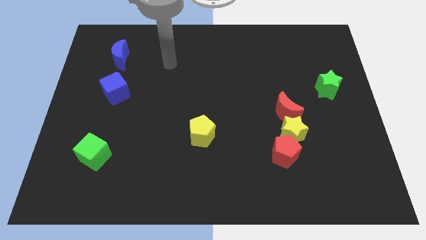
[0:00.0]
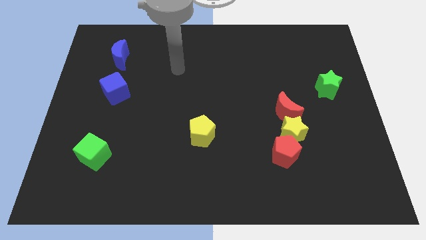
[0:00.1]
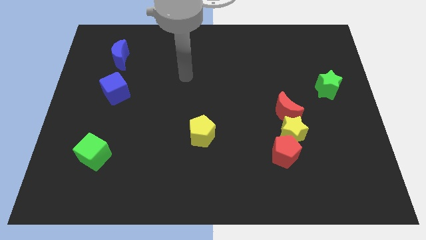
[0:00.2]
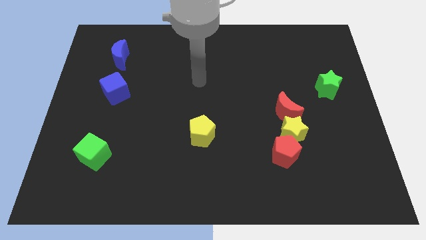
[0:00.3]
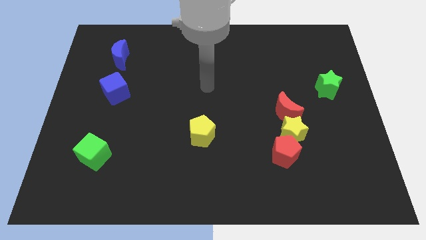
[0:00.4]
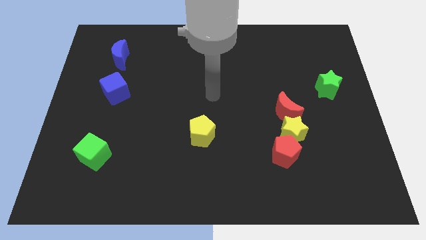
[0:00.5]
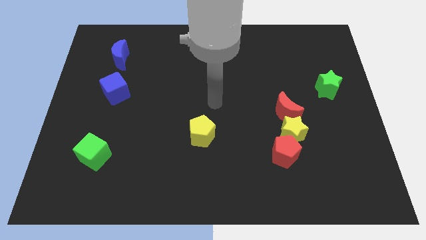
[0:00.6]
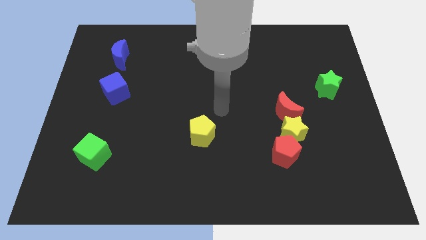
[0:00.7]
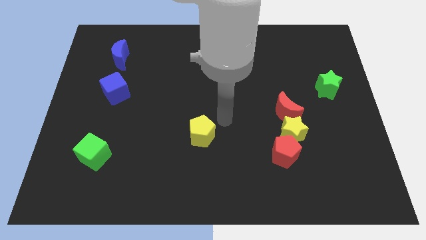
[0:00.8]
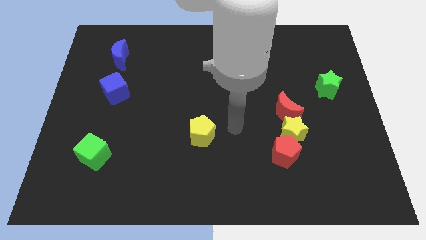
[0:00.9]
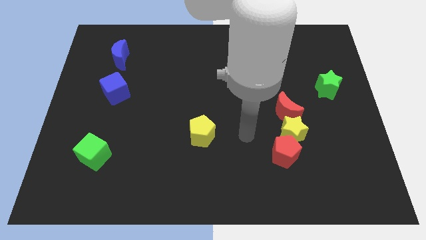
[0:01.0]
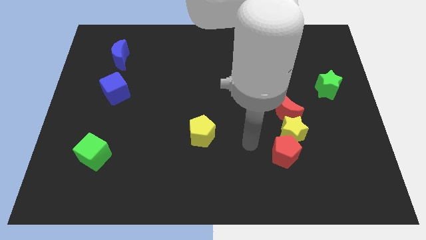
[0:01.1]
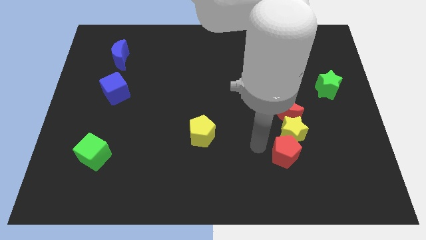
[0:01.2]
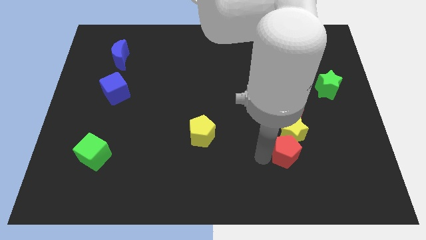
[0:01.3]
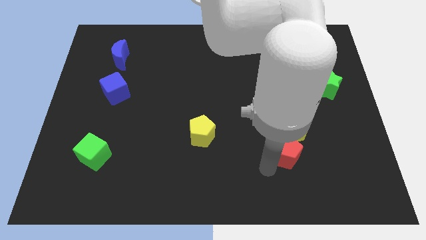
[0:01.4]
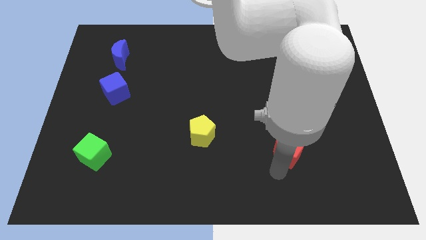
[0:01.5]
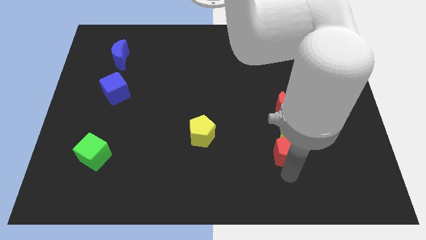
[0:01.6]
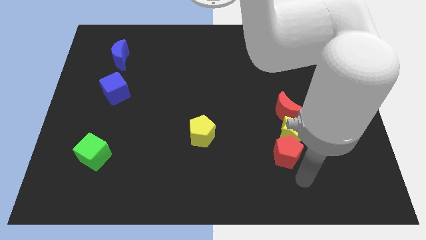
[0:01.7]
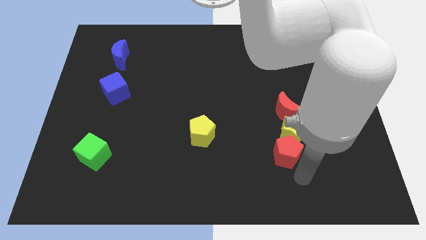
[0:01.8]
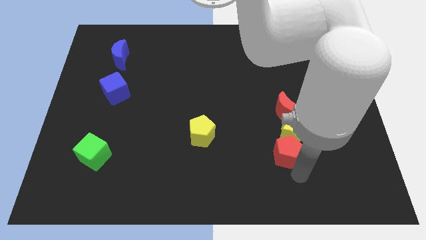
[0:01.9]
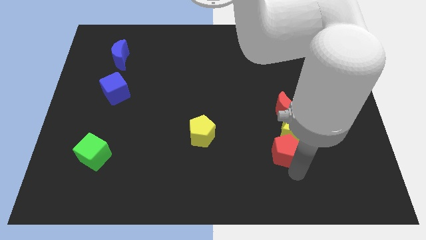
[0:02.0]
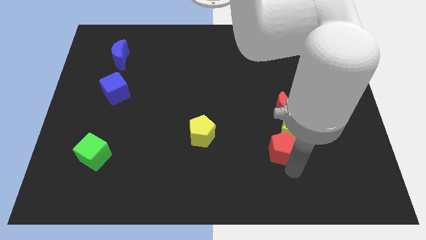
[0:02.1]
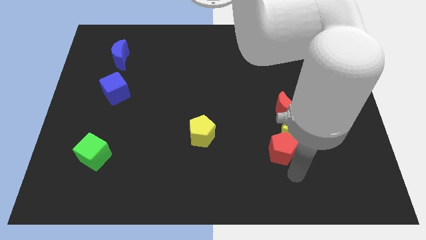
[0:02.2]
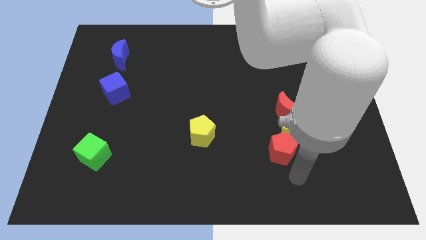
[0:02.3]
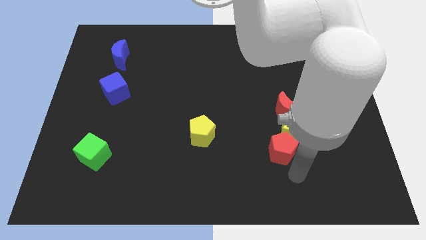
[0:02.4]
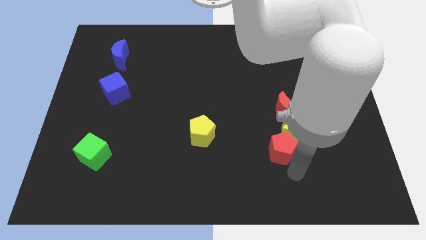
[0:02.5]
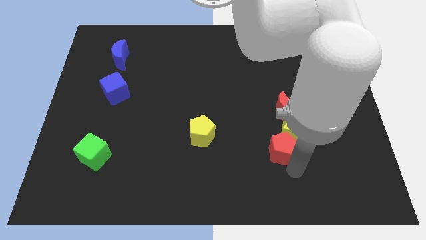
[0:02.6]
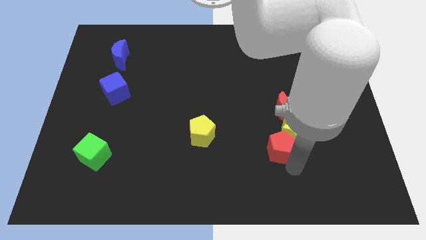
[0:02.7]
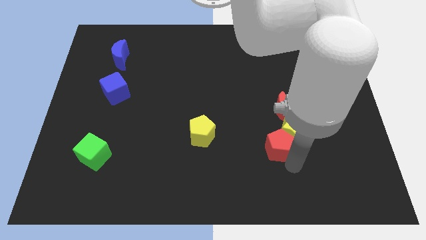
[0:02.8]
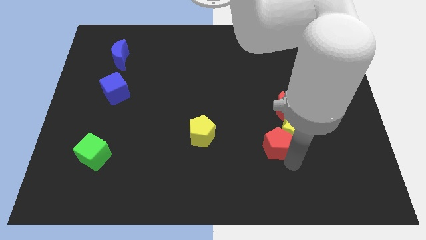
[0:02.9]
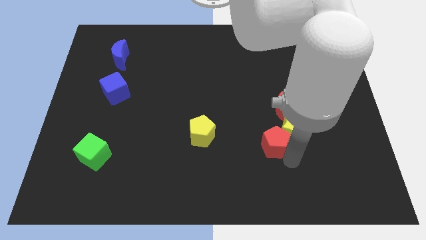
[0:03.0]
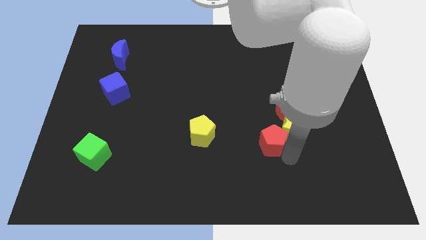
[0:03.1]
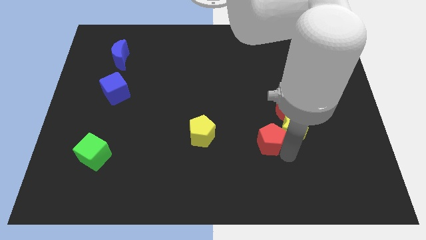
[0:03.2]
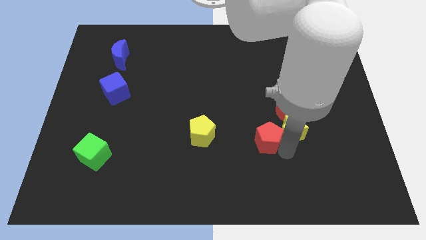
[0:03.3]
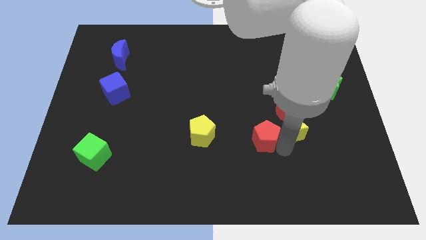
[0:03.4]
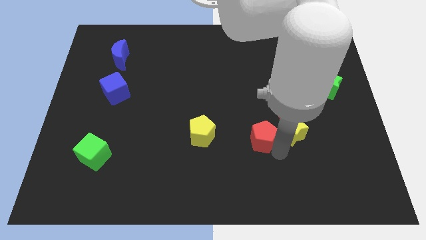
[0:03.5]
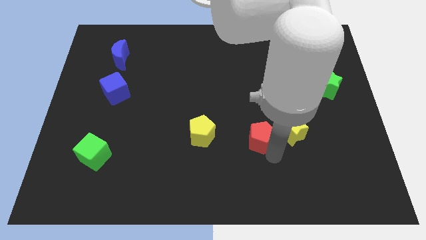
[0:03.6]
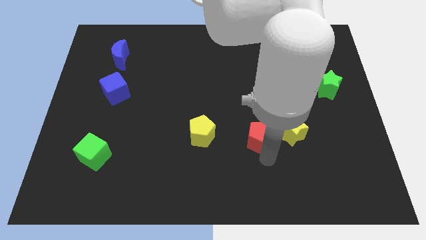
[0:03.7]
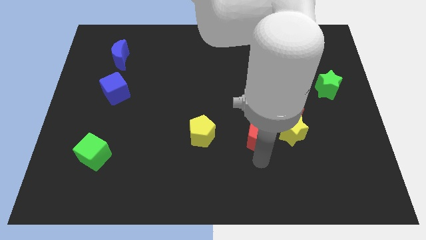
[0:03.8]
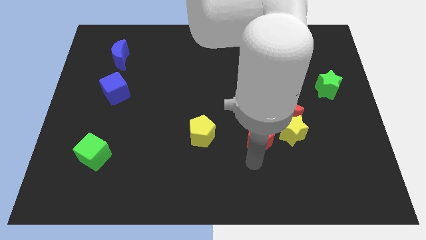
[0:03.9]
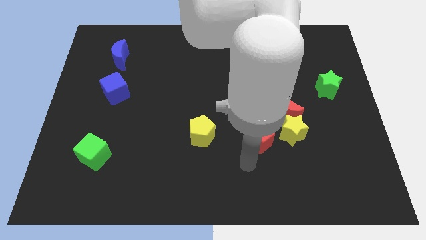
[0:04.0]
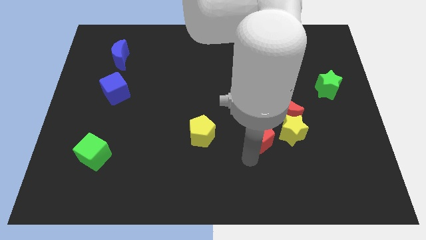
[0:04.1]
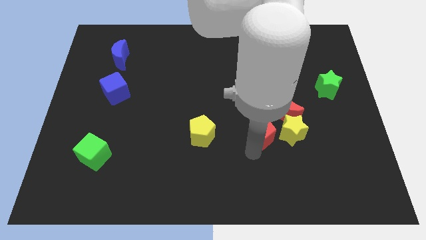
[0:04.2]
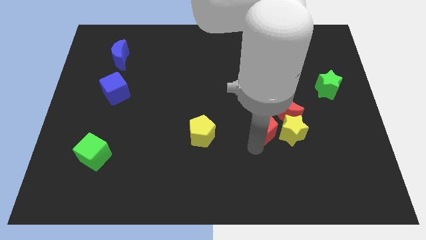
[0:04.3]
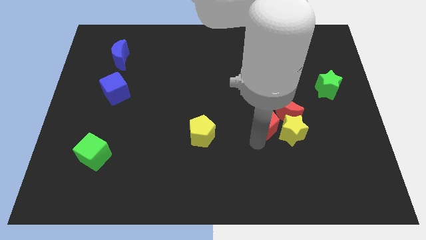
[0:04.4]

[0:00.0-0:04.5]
slide the red pentagon up a bit

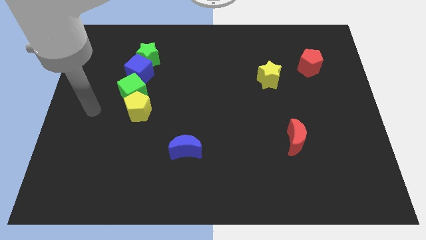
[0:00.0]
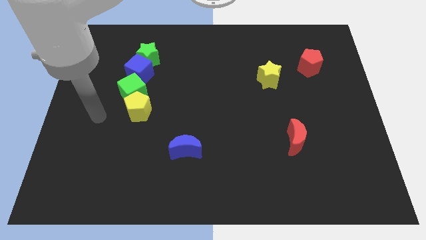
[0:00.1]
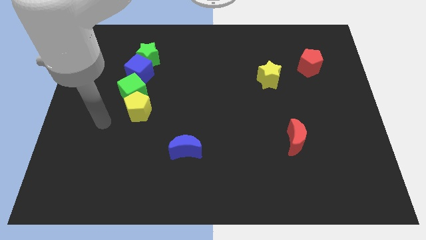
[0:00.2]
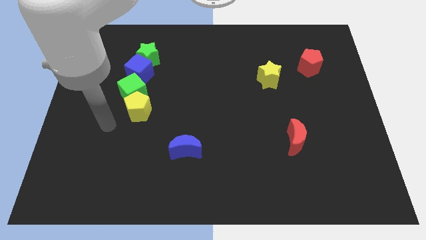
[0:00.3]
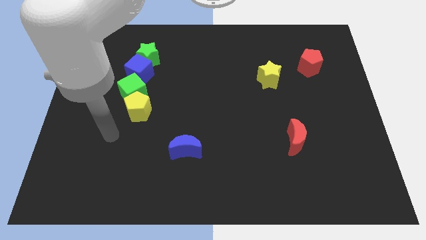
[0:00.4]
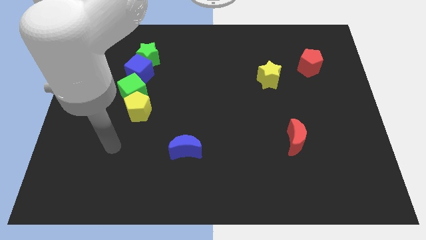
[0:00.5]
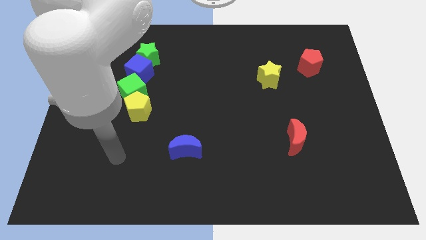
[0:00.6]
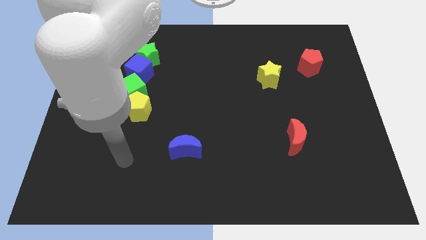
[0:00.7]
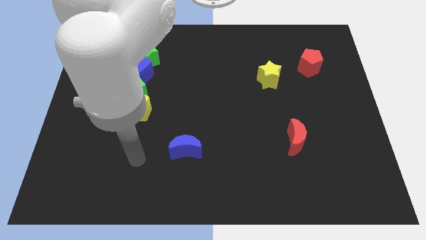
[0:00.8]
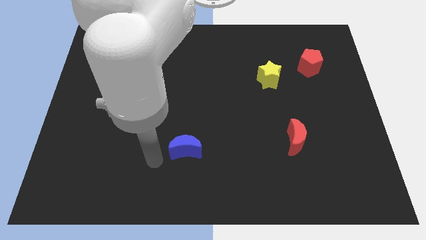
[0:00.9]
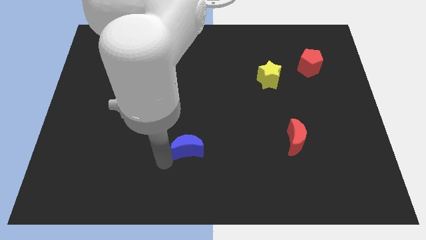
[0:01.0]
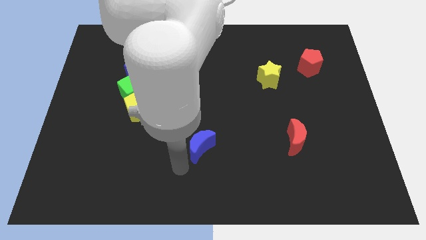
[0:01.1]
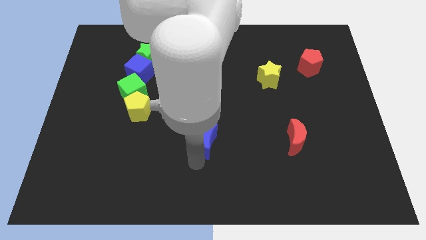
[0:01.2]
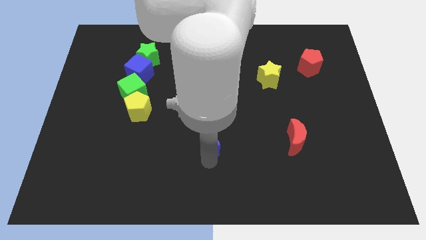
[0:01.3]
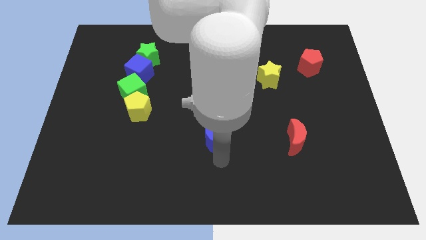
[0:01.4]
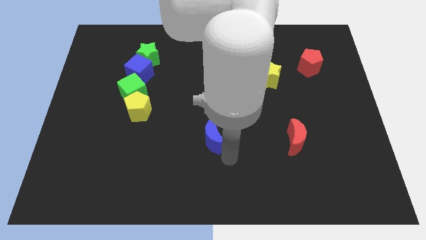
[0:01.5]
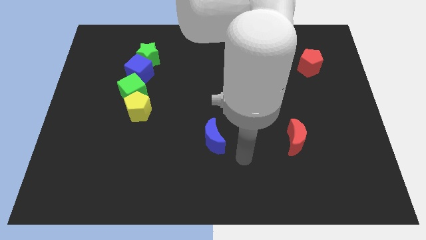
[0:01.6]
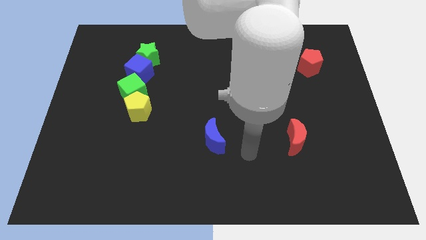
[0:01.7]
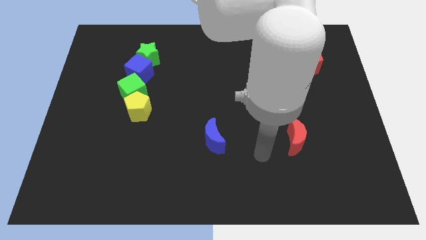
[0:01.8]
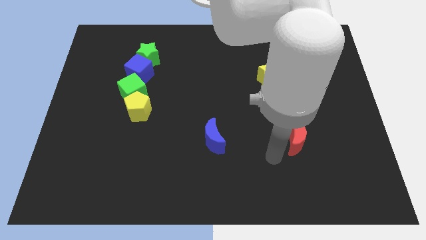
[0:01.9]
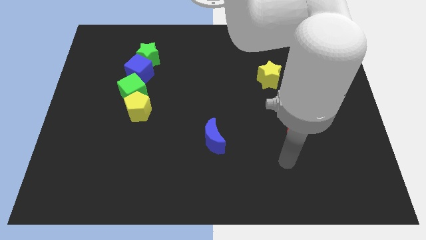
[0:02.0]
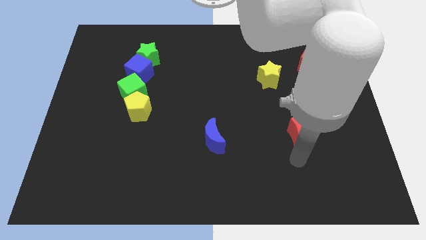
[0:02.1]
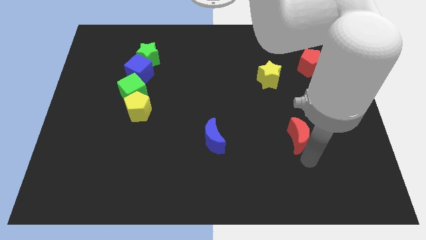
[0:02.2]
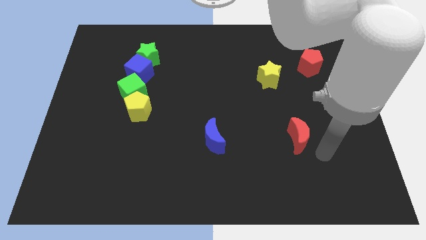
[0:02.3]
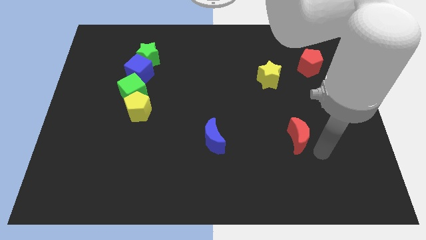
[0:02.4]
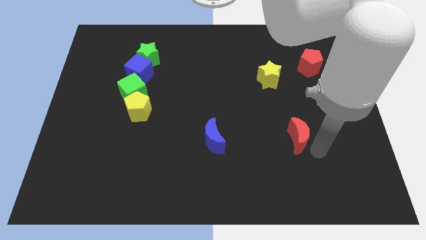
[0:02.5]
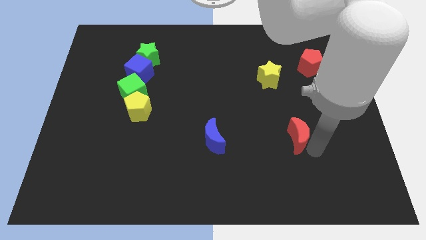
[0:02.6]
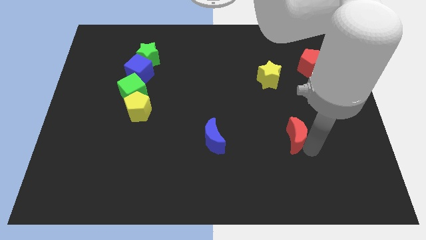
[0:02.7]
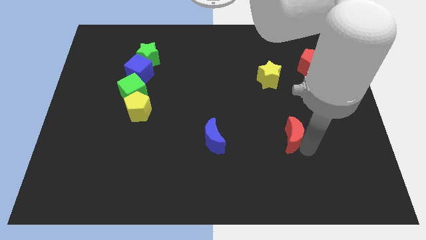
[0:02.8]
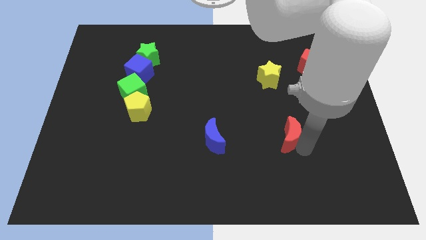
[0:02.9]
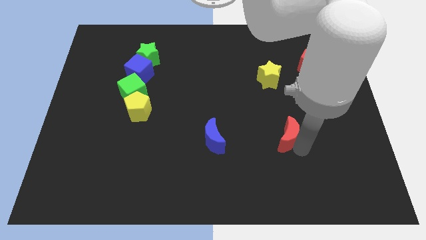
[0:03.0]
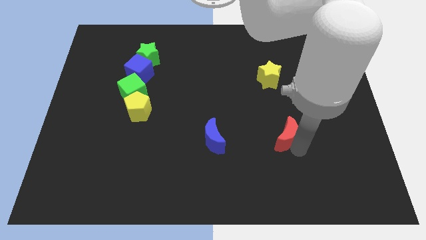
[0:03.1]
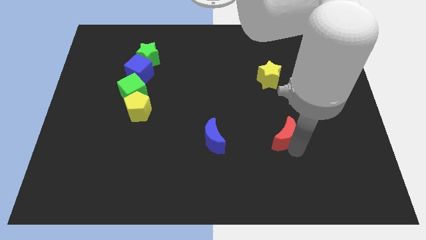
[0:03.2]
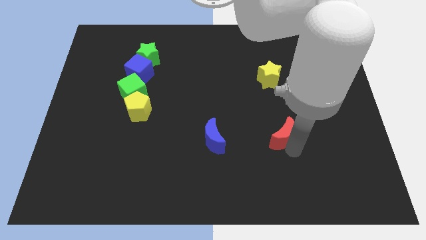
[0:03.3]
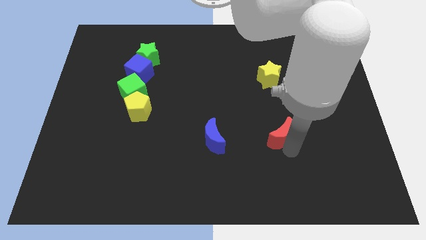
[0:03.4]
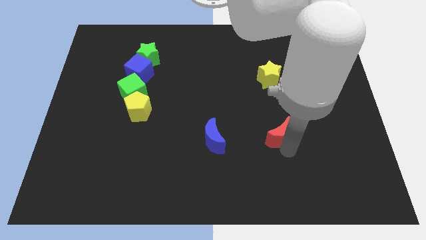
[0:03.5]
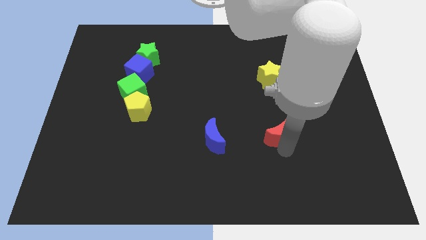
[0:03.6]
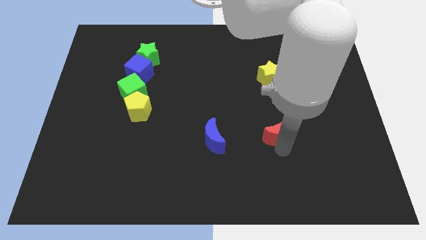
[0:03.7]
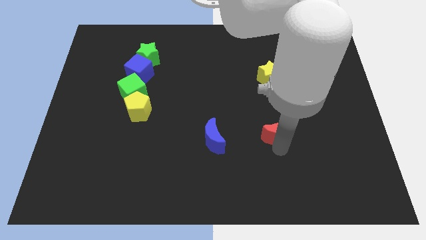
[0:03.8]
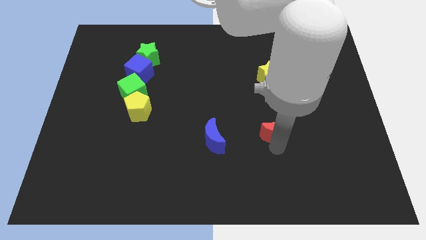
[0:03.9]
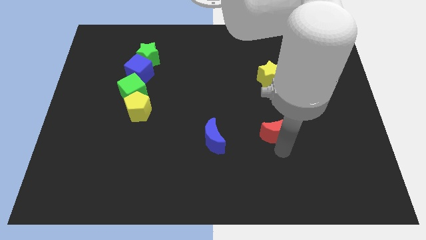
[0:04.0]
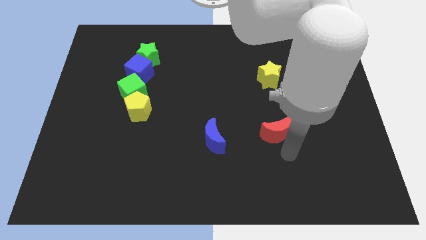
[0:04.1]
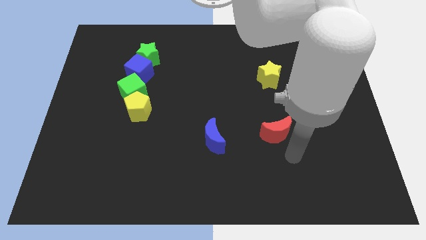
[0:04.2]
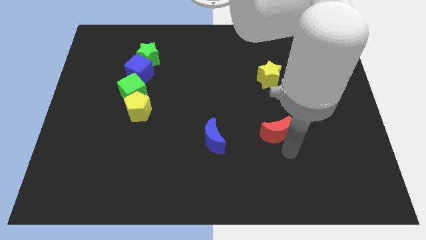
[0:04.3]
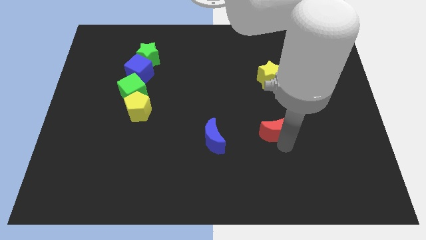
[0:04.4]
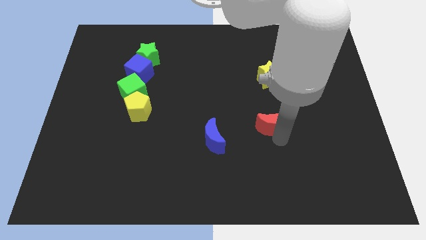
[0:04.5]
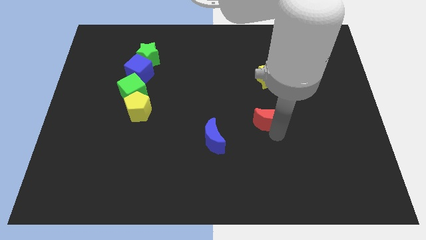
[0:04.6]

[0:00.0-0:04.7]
slightly move the red moon diagonally upwards and left
